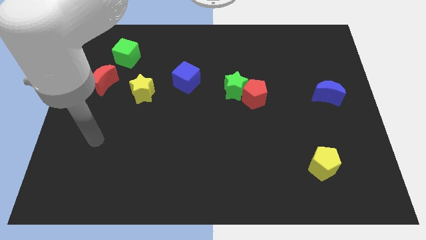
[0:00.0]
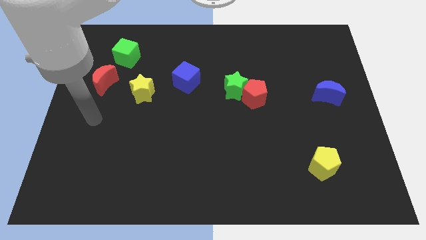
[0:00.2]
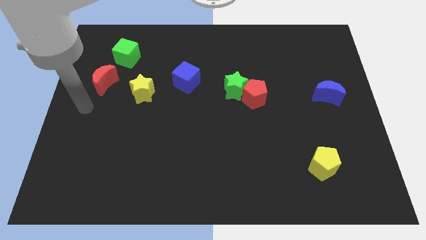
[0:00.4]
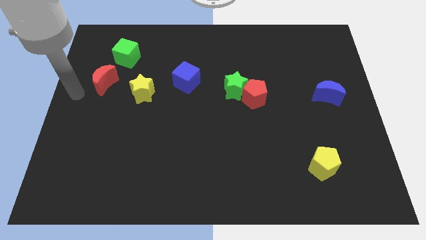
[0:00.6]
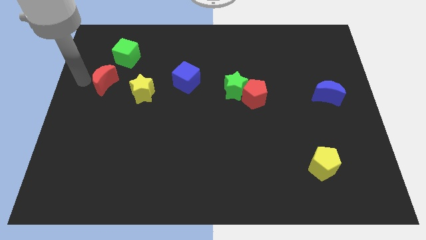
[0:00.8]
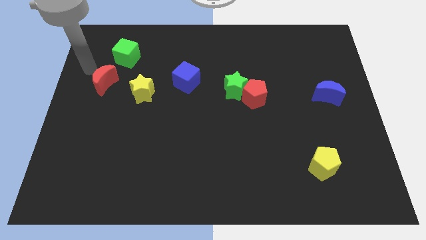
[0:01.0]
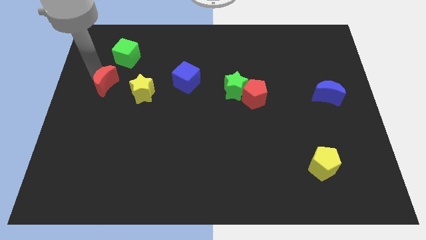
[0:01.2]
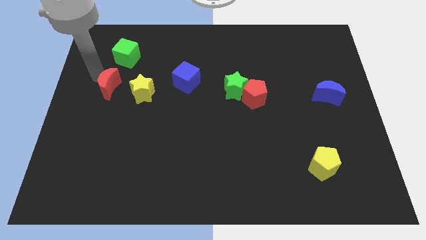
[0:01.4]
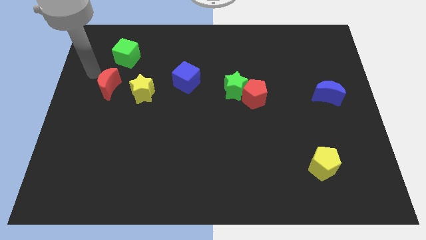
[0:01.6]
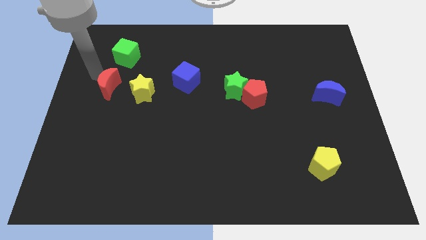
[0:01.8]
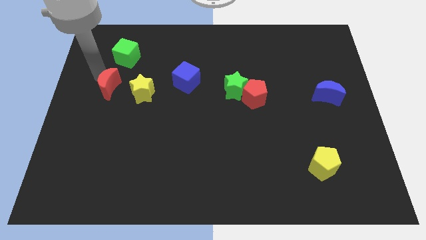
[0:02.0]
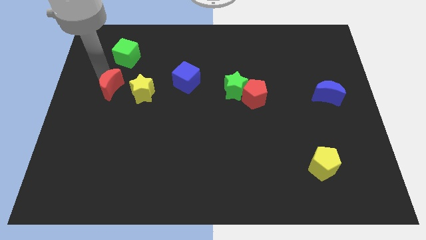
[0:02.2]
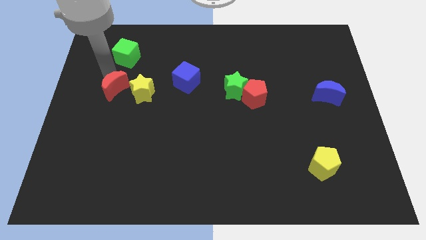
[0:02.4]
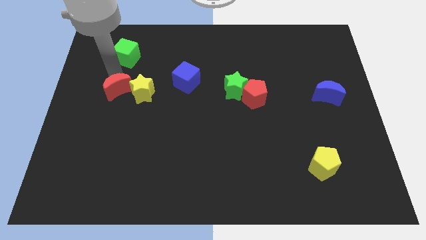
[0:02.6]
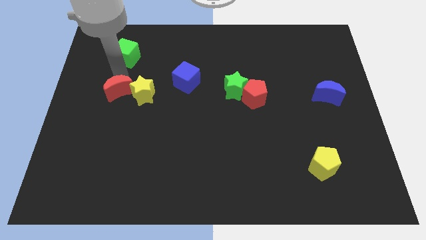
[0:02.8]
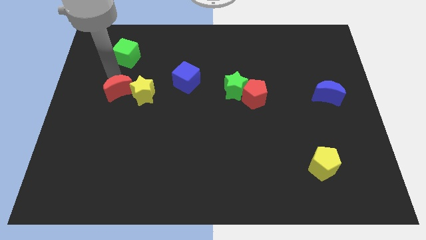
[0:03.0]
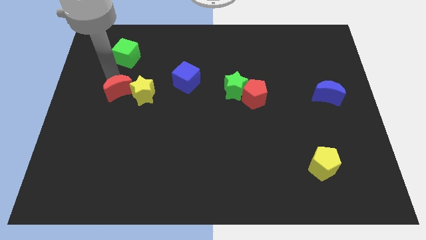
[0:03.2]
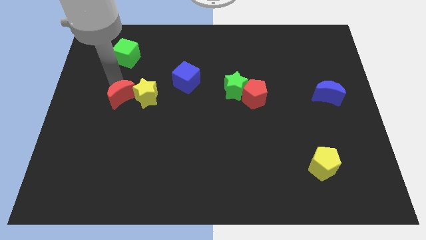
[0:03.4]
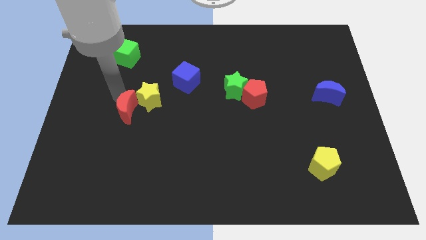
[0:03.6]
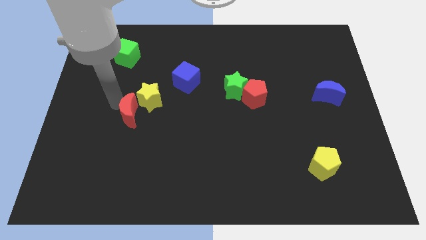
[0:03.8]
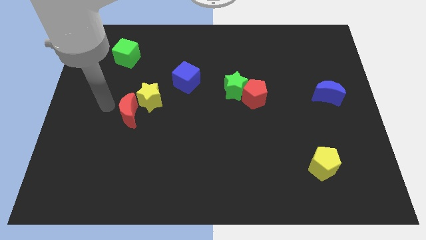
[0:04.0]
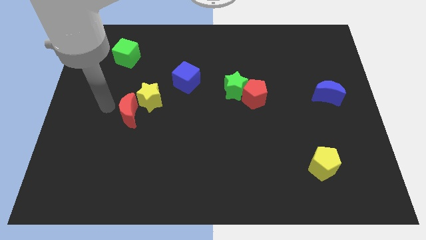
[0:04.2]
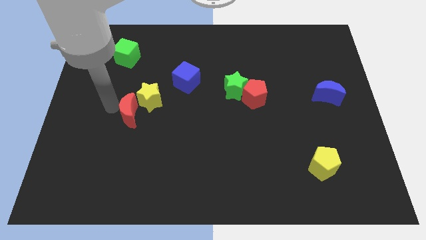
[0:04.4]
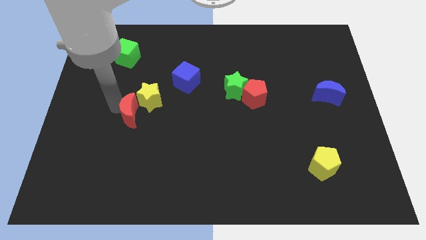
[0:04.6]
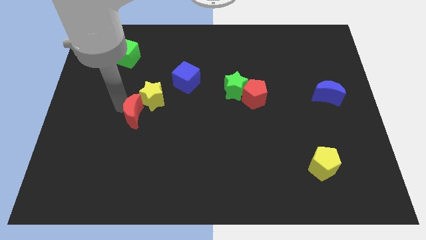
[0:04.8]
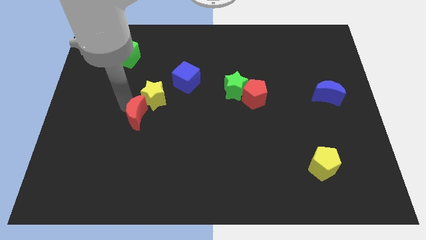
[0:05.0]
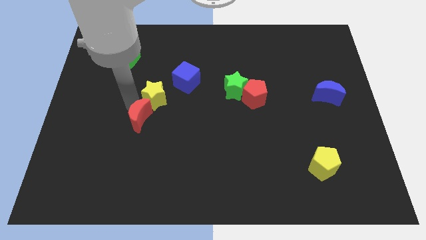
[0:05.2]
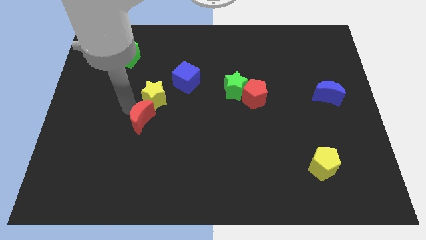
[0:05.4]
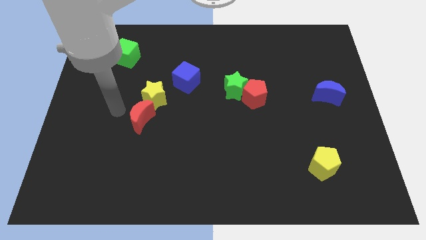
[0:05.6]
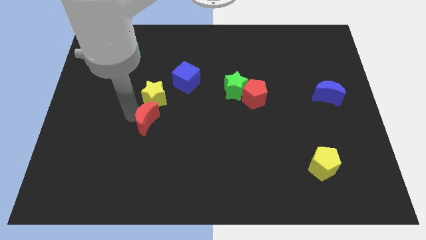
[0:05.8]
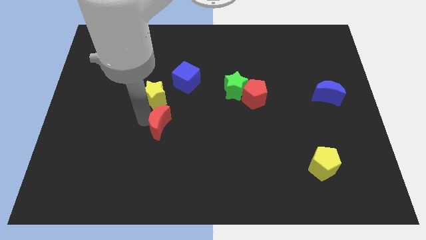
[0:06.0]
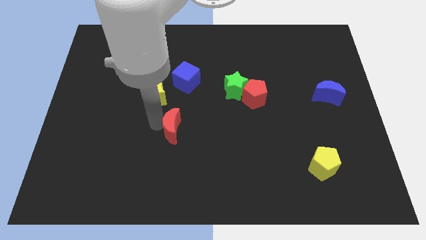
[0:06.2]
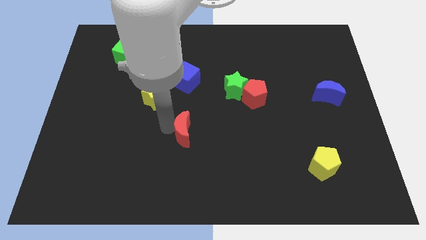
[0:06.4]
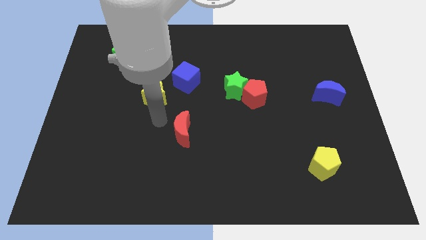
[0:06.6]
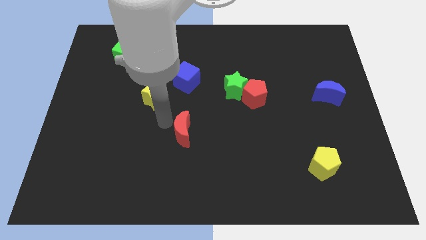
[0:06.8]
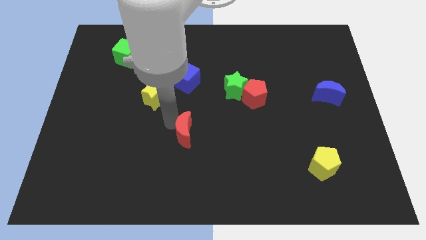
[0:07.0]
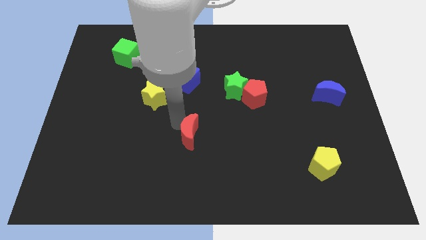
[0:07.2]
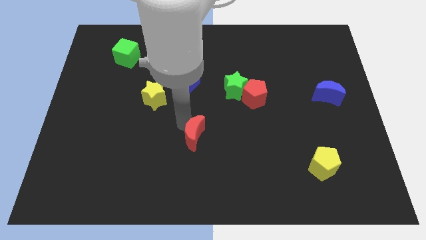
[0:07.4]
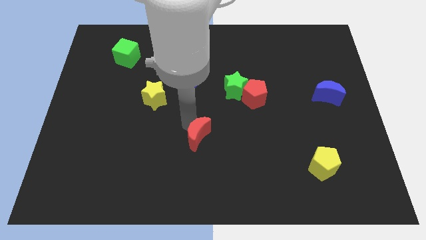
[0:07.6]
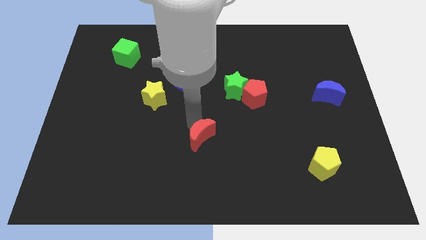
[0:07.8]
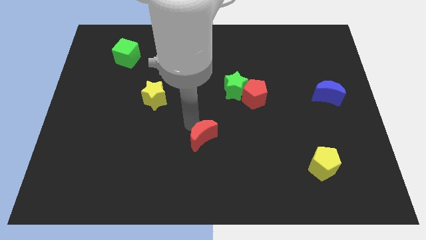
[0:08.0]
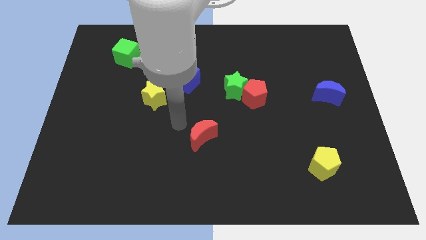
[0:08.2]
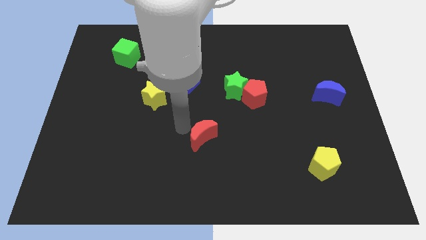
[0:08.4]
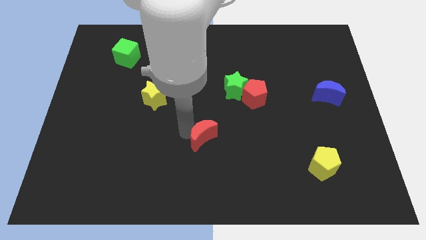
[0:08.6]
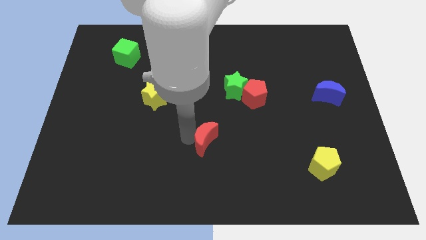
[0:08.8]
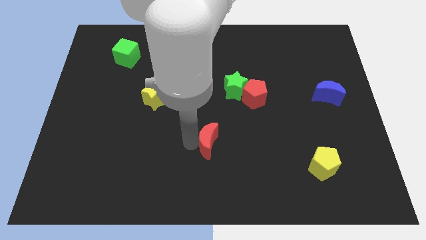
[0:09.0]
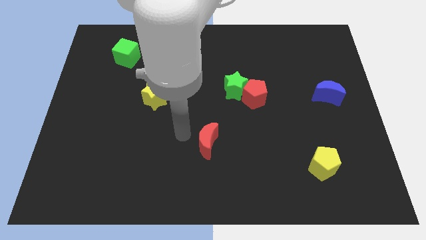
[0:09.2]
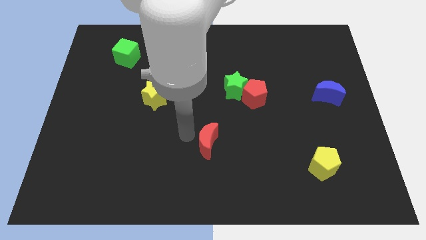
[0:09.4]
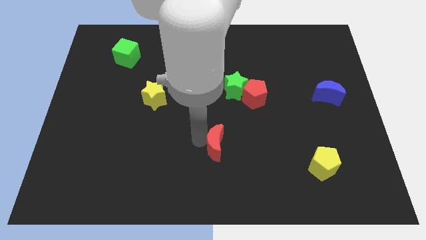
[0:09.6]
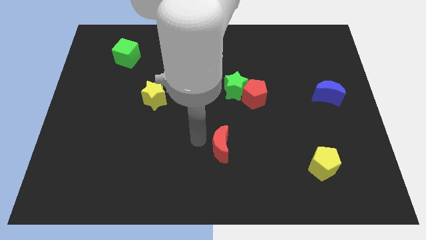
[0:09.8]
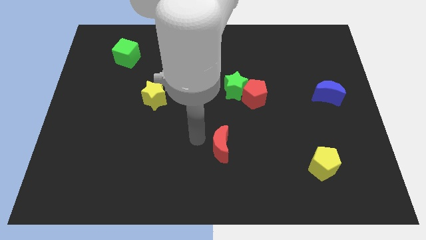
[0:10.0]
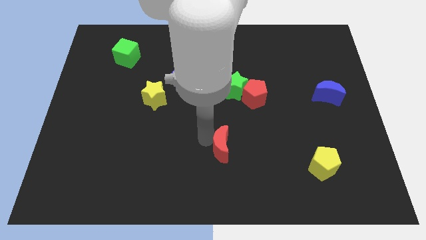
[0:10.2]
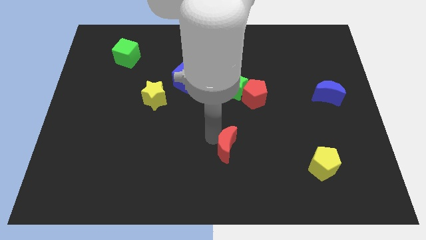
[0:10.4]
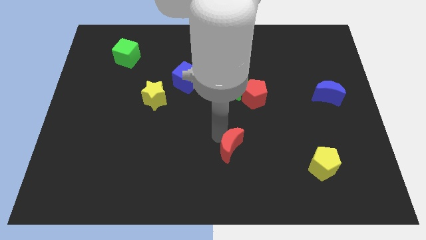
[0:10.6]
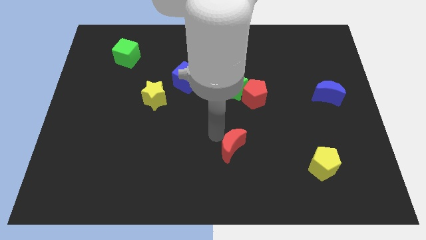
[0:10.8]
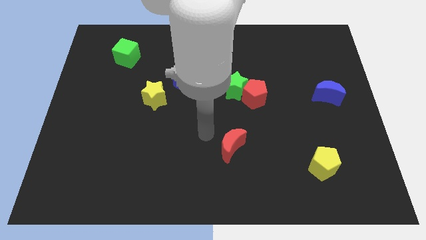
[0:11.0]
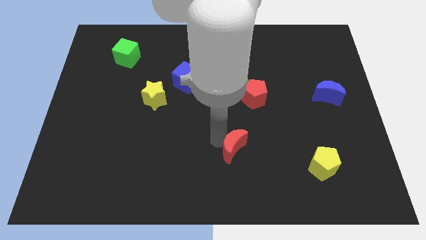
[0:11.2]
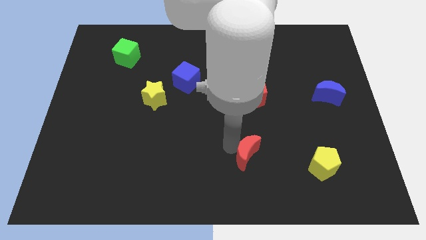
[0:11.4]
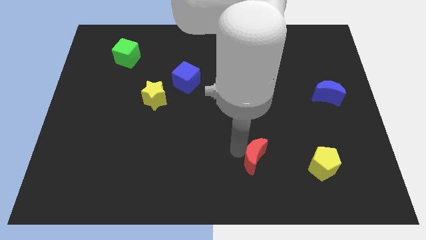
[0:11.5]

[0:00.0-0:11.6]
slide the red moon to the left side of the yellow pentagon
